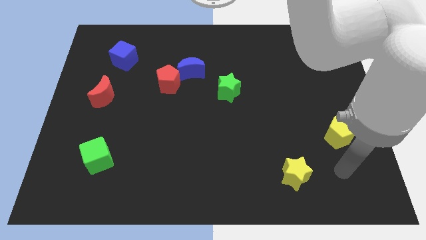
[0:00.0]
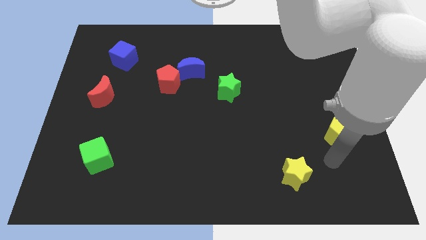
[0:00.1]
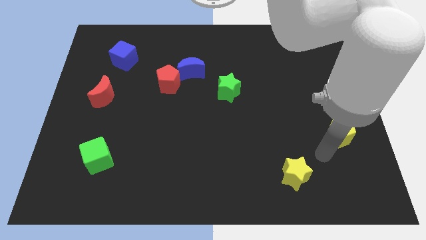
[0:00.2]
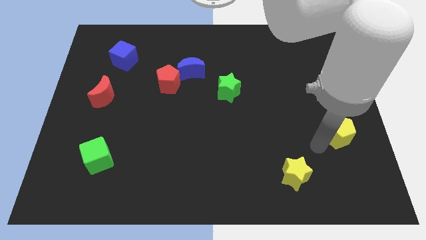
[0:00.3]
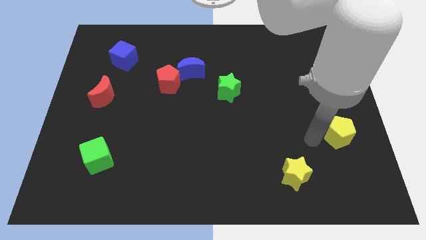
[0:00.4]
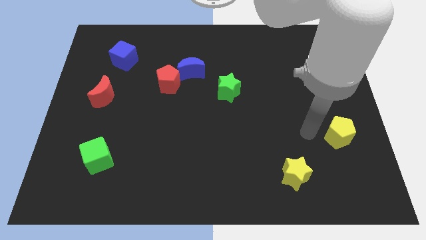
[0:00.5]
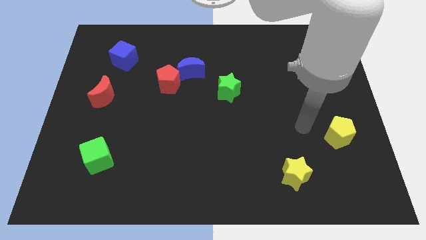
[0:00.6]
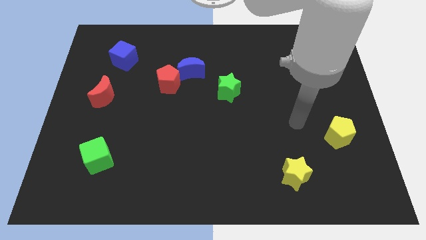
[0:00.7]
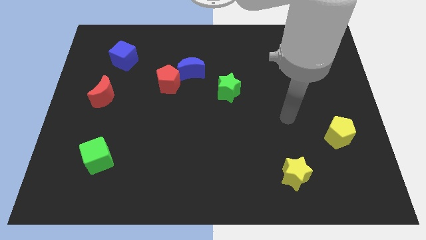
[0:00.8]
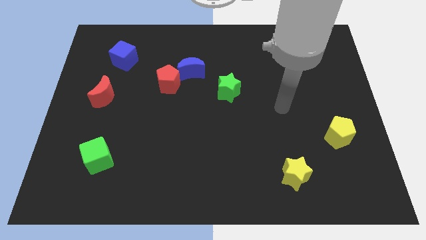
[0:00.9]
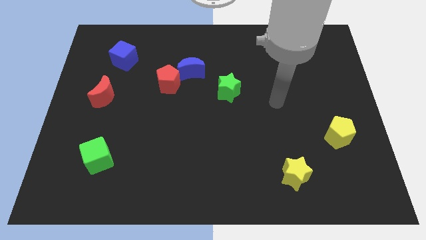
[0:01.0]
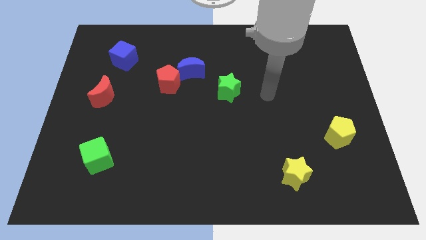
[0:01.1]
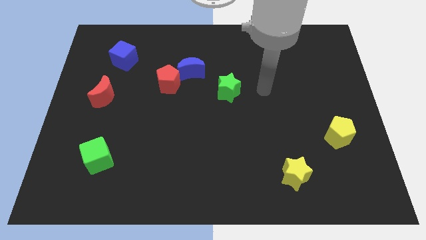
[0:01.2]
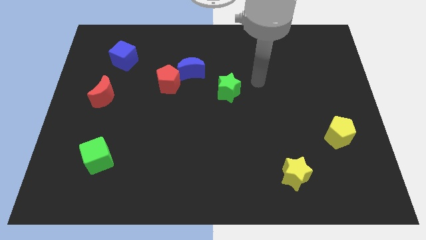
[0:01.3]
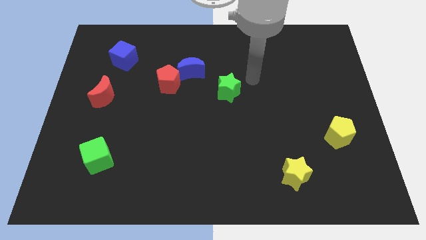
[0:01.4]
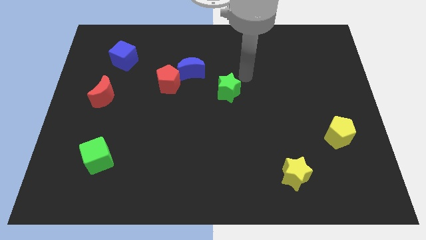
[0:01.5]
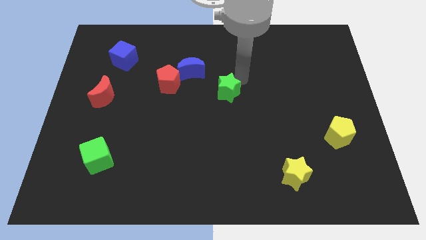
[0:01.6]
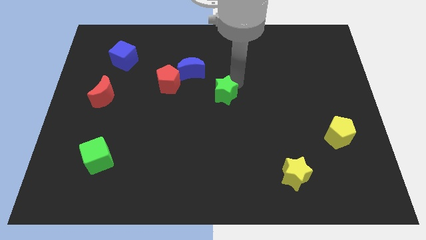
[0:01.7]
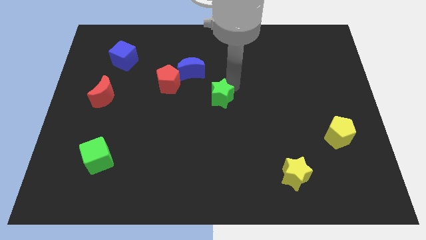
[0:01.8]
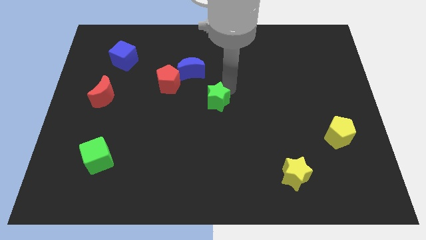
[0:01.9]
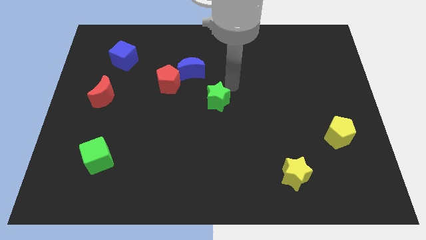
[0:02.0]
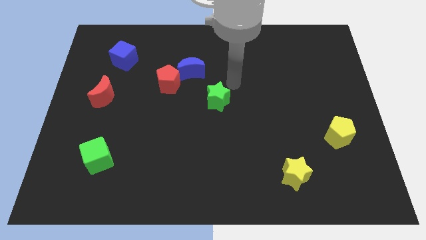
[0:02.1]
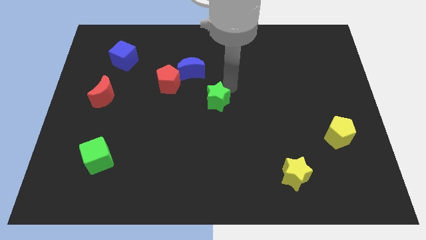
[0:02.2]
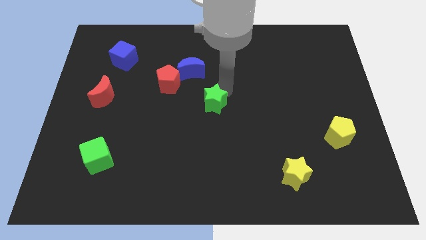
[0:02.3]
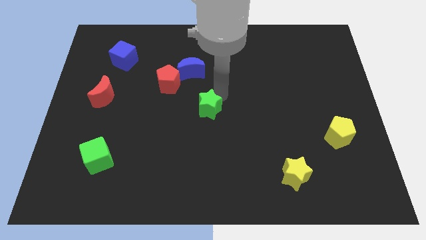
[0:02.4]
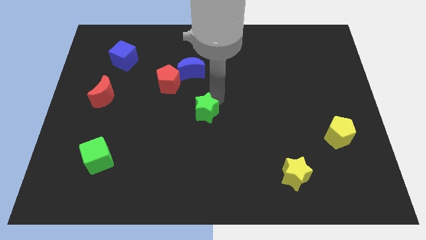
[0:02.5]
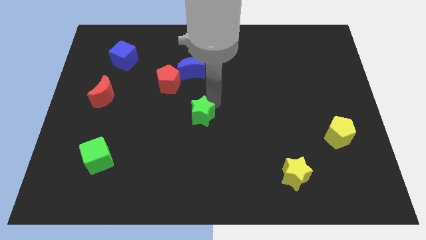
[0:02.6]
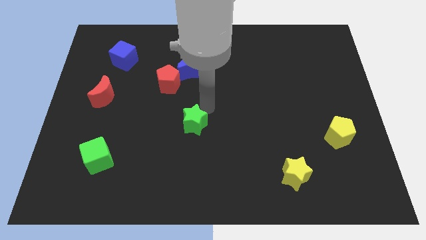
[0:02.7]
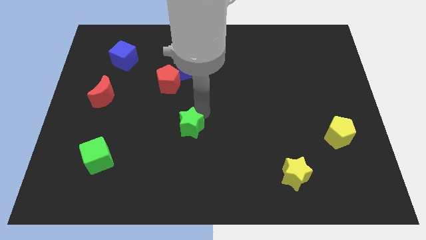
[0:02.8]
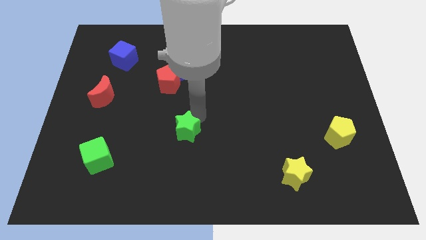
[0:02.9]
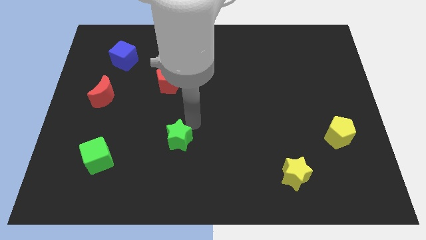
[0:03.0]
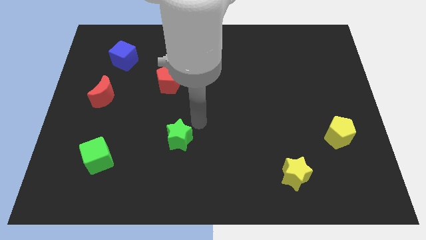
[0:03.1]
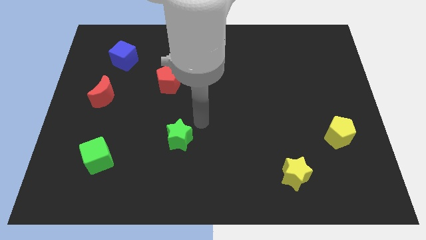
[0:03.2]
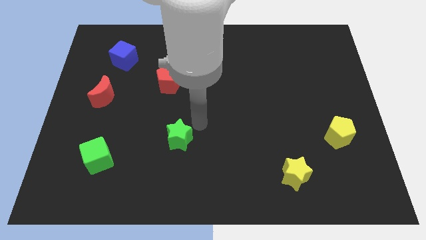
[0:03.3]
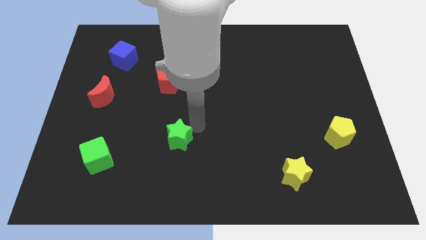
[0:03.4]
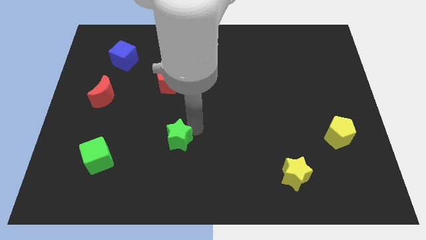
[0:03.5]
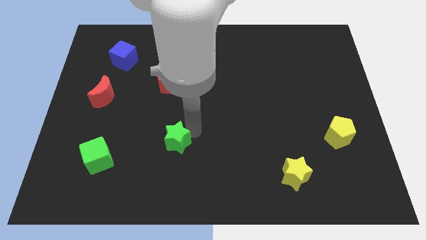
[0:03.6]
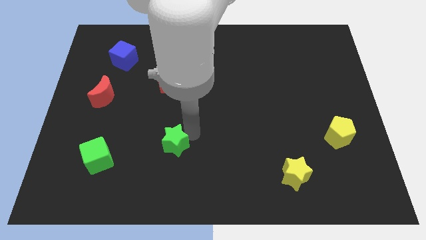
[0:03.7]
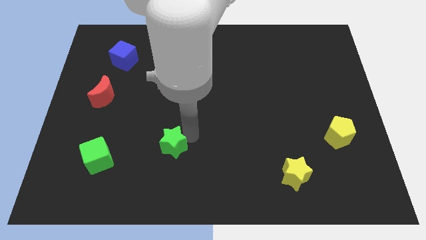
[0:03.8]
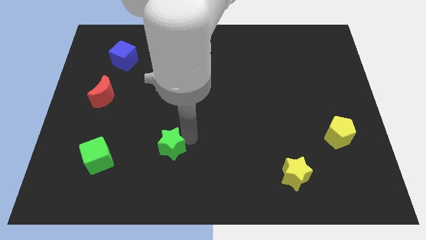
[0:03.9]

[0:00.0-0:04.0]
push the green star downwards and then left

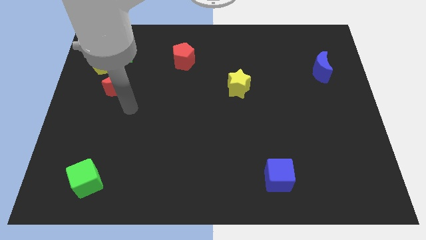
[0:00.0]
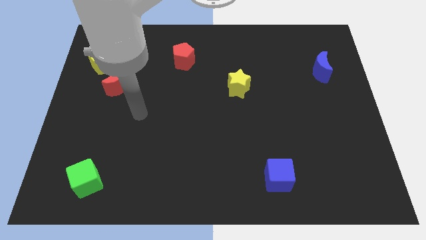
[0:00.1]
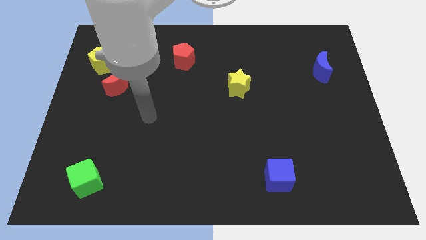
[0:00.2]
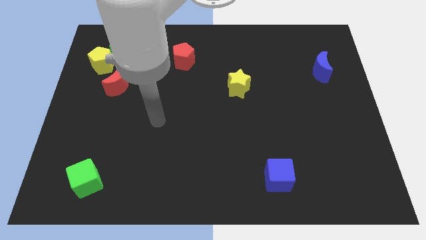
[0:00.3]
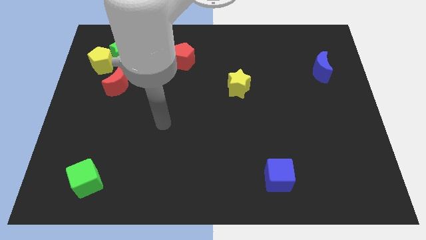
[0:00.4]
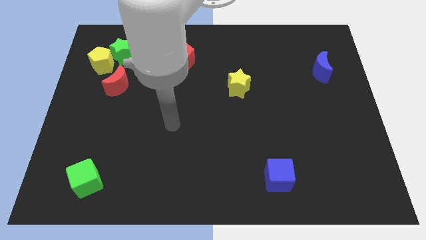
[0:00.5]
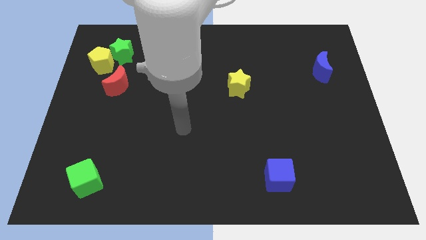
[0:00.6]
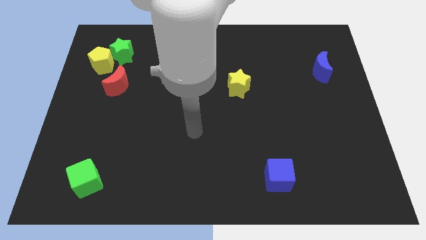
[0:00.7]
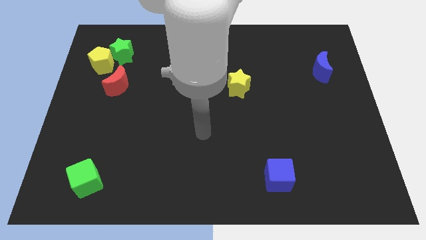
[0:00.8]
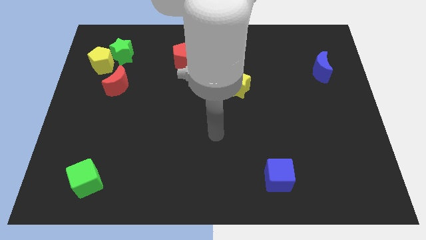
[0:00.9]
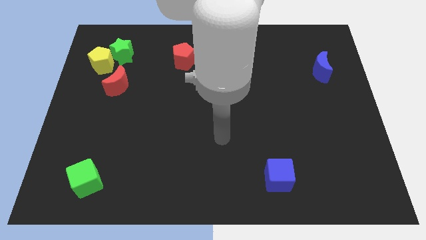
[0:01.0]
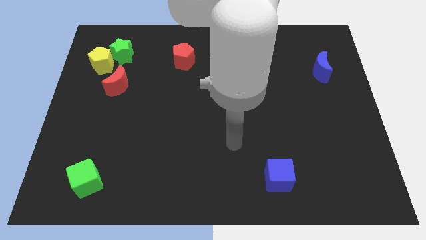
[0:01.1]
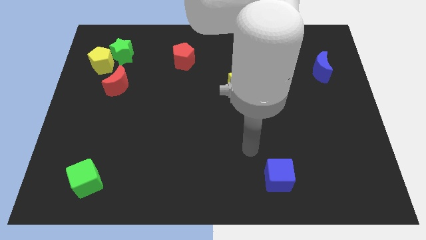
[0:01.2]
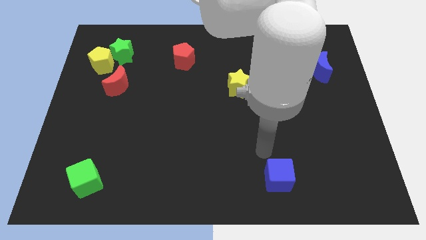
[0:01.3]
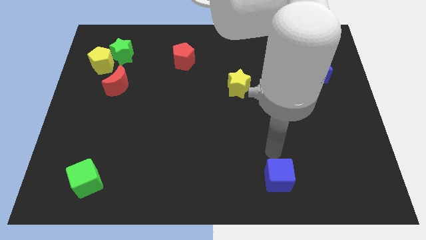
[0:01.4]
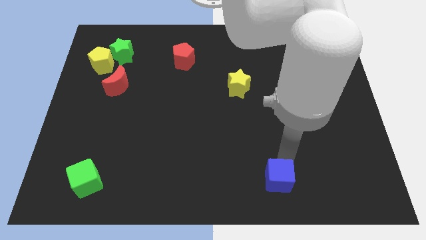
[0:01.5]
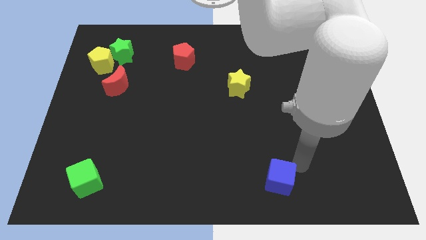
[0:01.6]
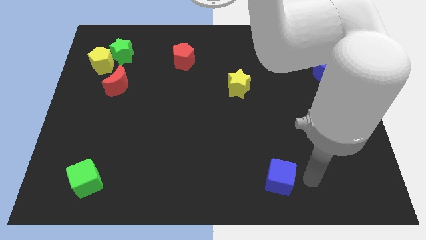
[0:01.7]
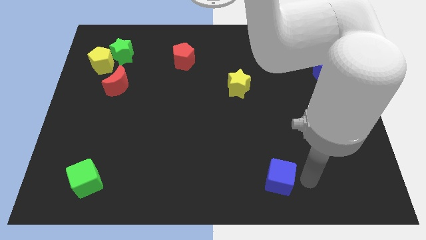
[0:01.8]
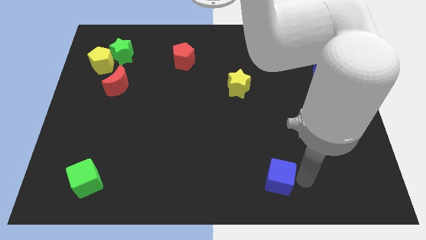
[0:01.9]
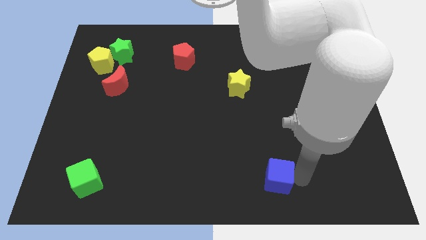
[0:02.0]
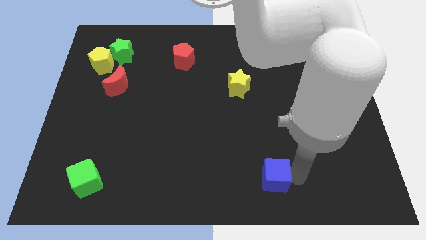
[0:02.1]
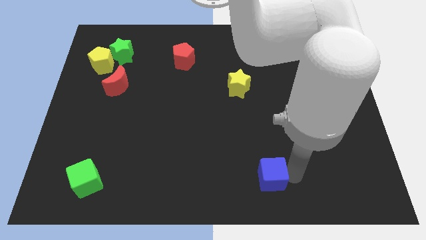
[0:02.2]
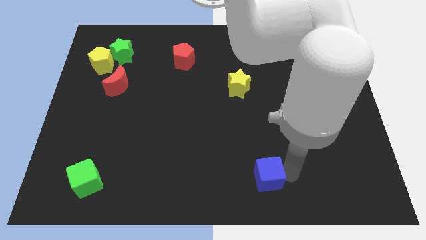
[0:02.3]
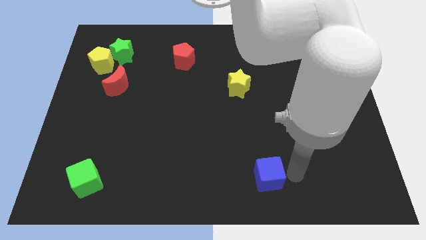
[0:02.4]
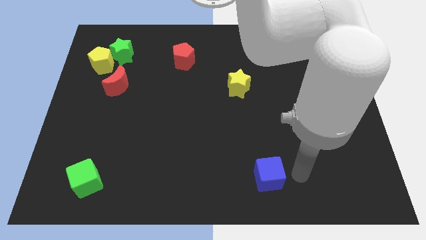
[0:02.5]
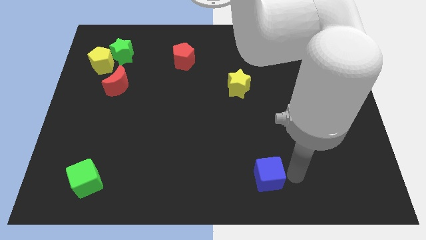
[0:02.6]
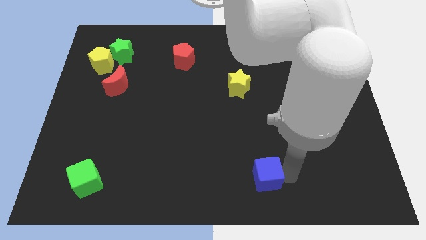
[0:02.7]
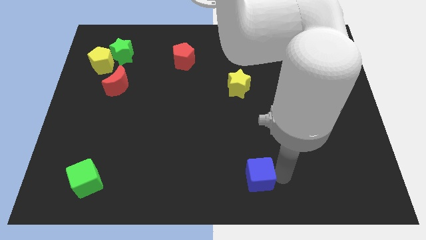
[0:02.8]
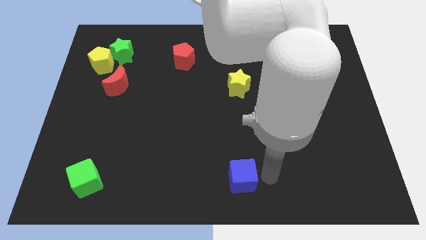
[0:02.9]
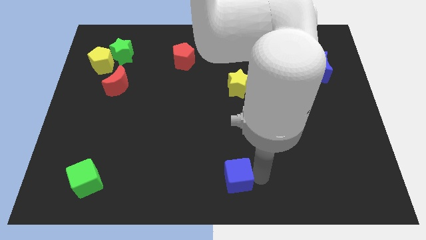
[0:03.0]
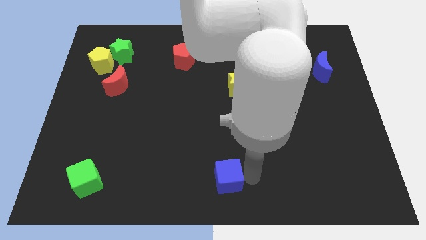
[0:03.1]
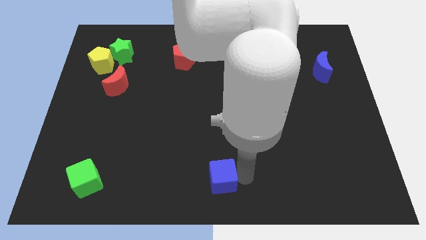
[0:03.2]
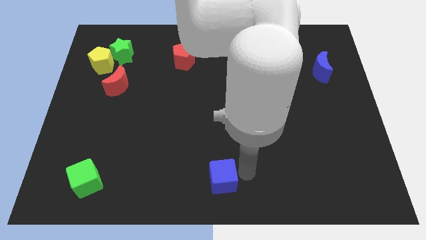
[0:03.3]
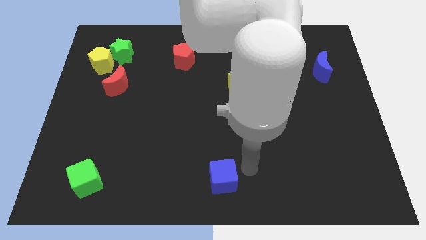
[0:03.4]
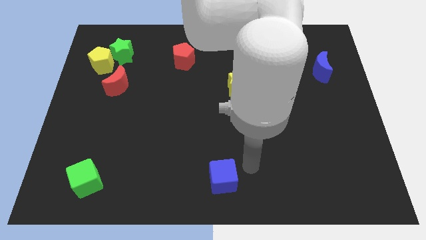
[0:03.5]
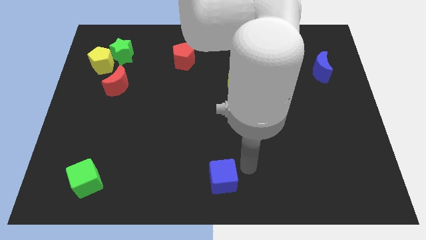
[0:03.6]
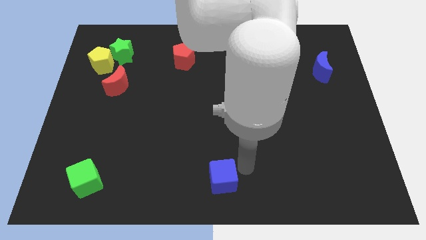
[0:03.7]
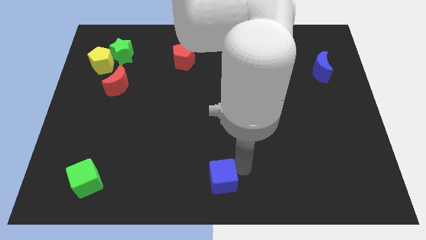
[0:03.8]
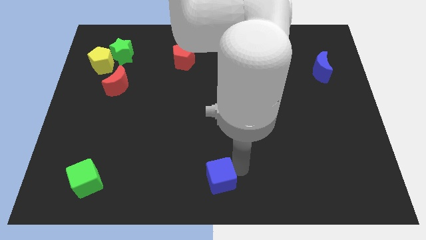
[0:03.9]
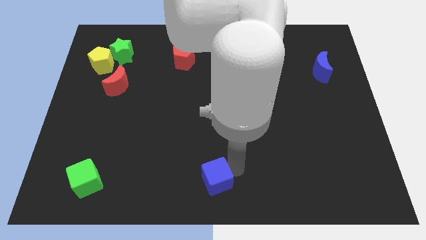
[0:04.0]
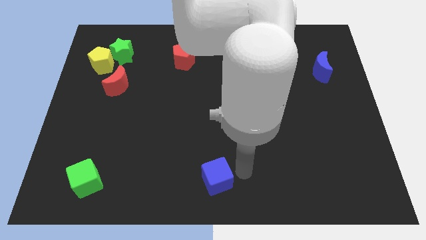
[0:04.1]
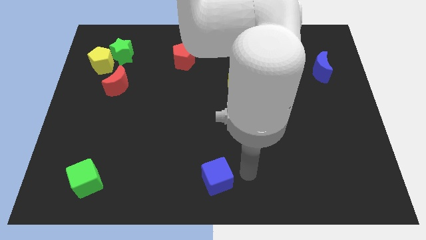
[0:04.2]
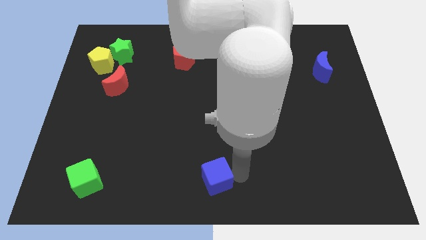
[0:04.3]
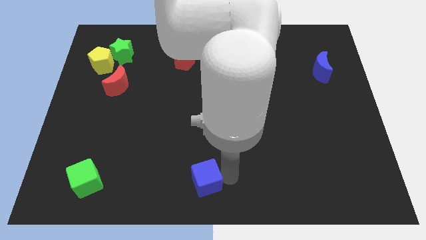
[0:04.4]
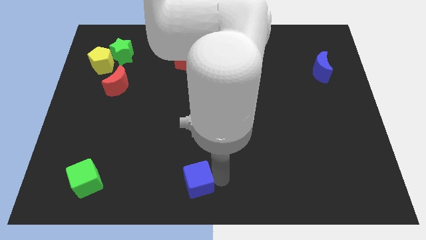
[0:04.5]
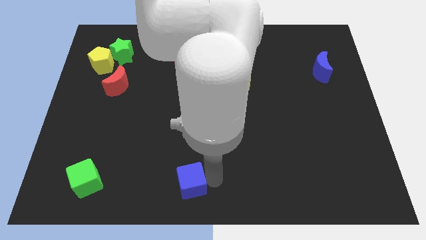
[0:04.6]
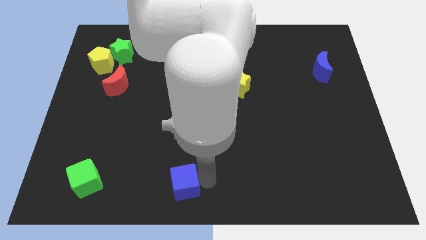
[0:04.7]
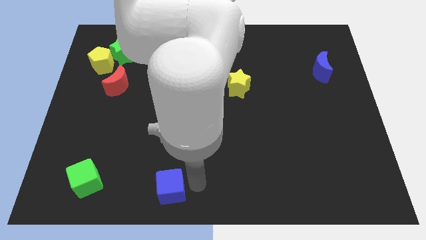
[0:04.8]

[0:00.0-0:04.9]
move the blue cube to the left

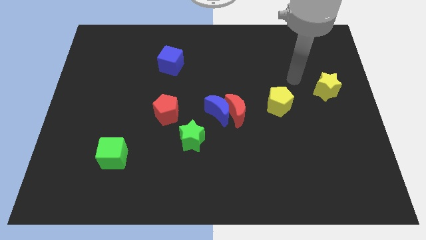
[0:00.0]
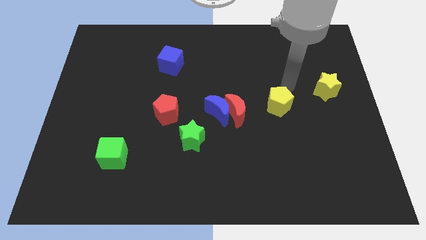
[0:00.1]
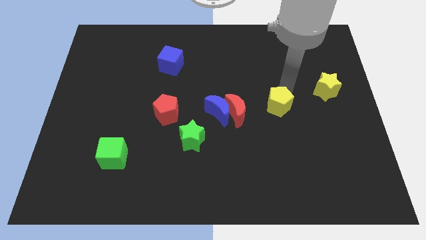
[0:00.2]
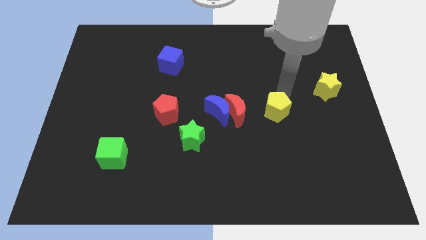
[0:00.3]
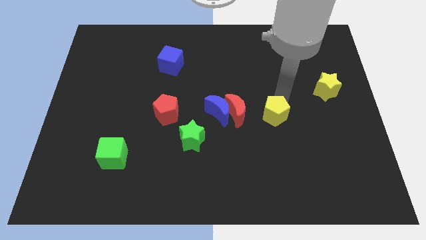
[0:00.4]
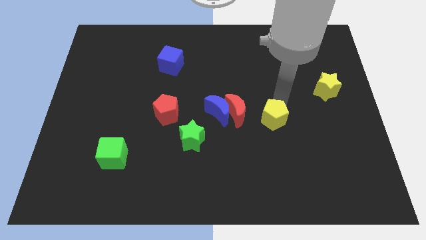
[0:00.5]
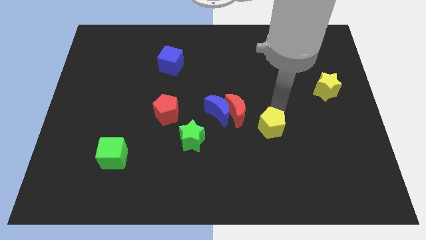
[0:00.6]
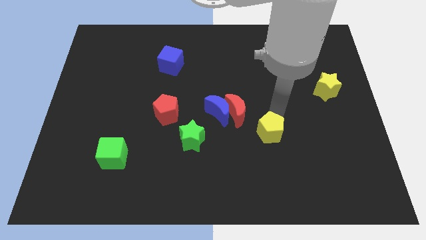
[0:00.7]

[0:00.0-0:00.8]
slightly slide the yellow pentagon diagonally down and to the left
